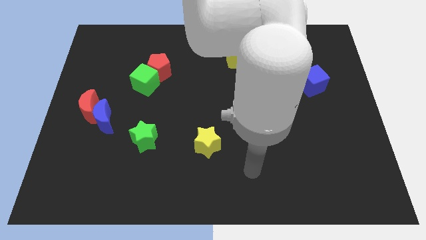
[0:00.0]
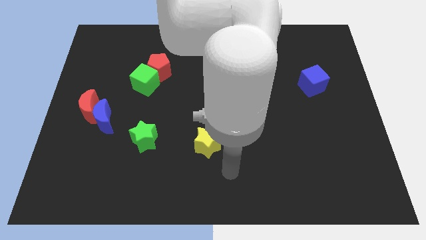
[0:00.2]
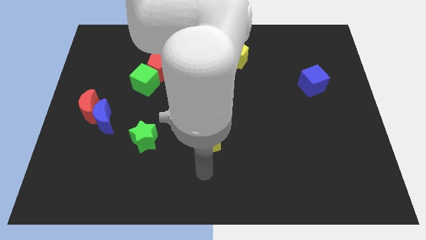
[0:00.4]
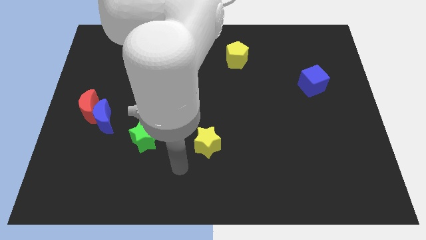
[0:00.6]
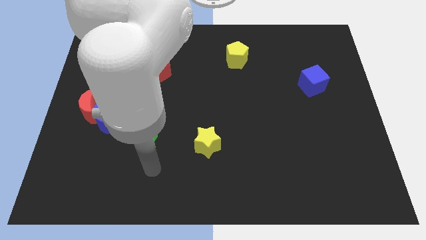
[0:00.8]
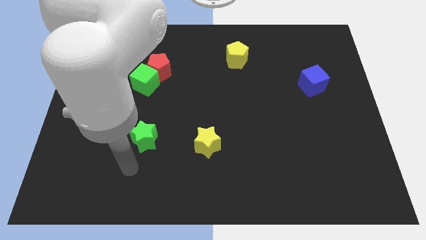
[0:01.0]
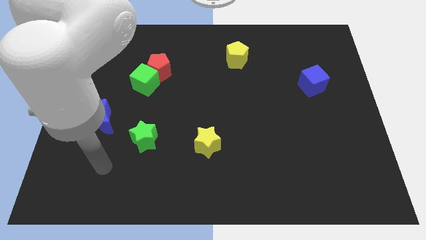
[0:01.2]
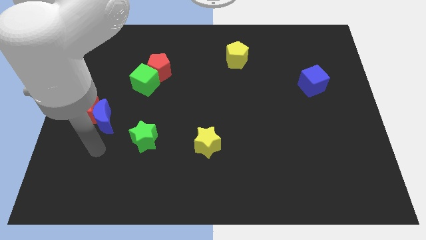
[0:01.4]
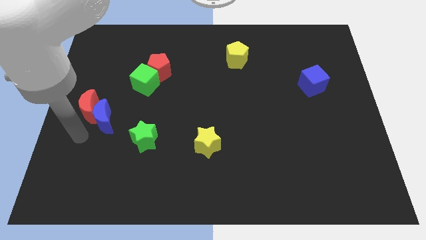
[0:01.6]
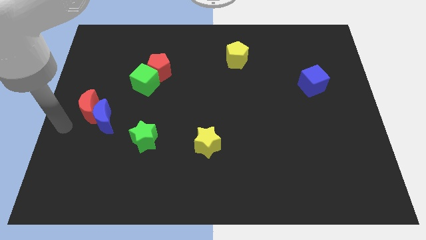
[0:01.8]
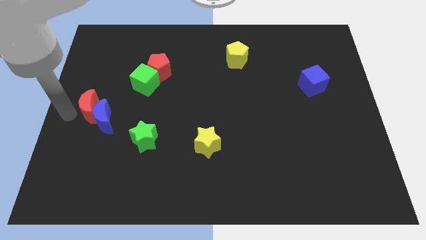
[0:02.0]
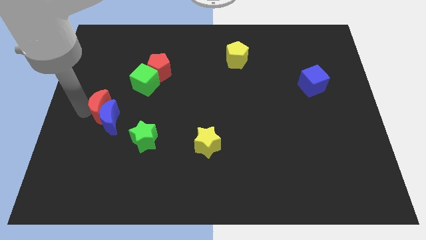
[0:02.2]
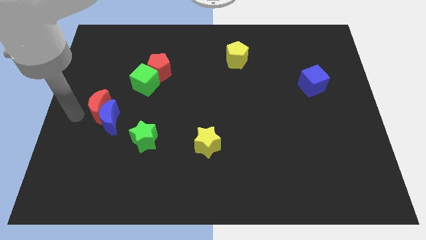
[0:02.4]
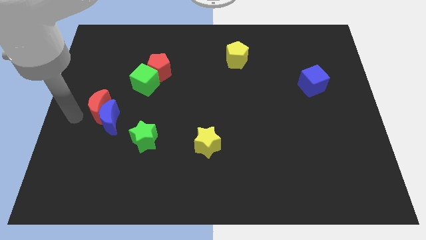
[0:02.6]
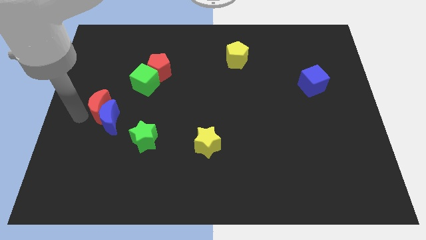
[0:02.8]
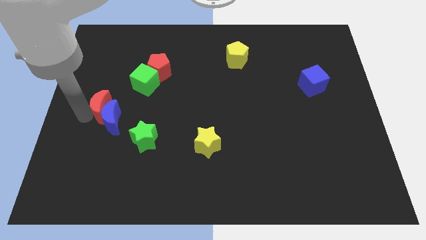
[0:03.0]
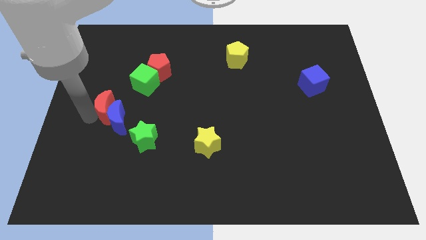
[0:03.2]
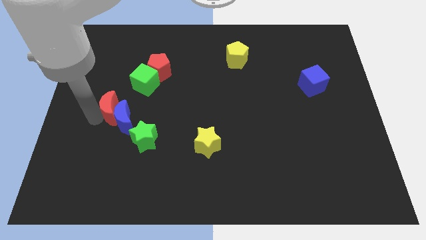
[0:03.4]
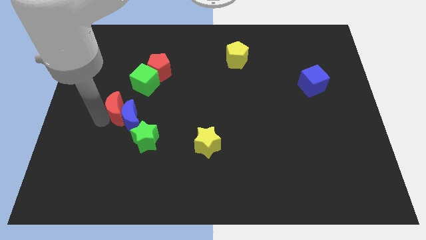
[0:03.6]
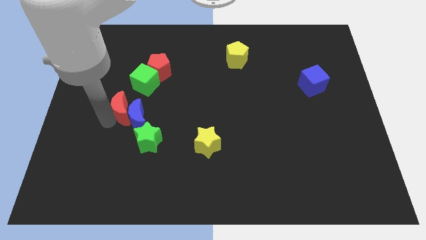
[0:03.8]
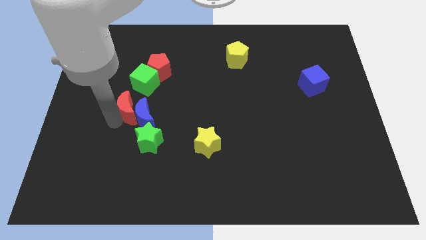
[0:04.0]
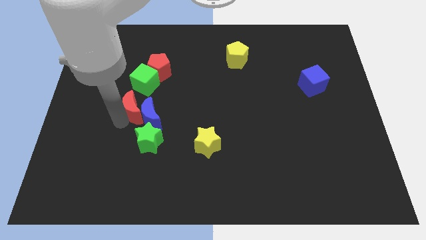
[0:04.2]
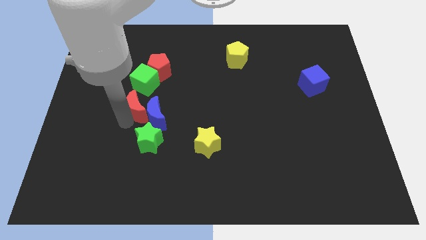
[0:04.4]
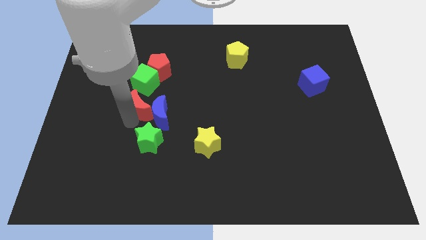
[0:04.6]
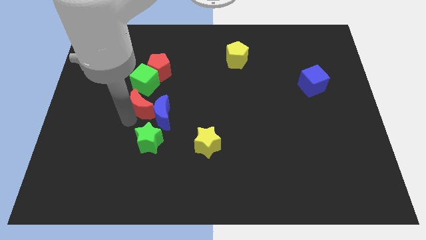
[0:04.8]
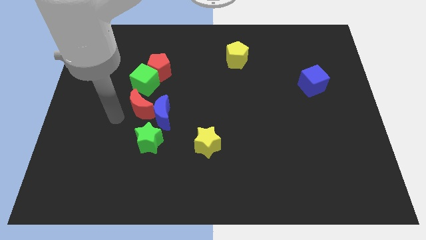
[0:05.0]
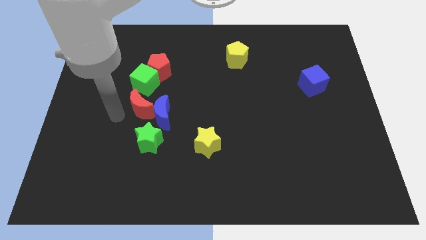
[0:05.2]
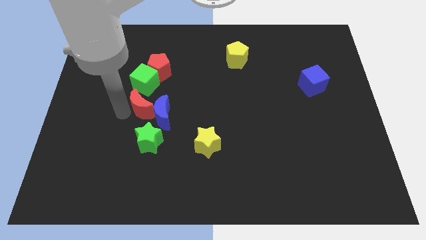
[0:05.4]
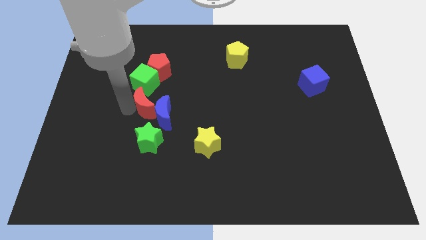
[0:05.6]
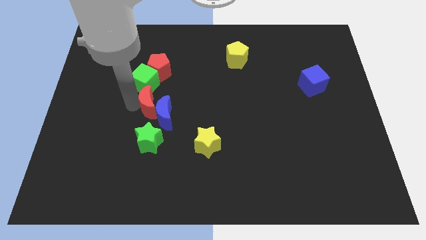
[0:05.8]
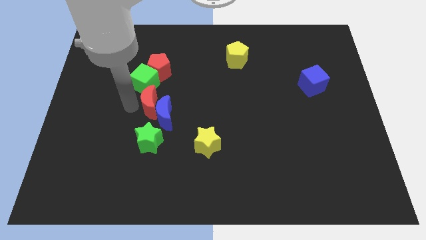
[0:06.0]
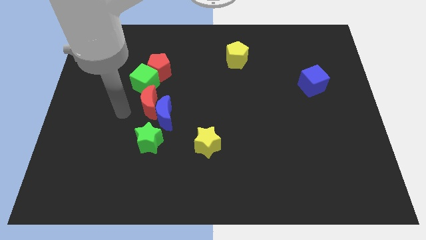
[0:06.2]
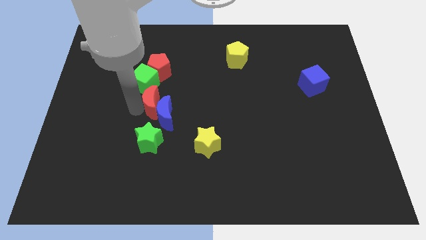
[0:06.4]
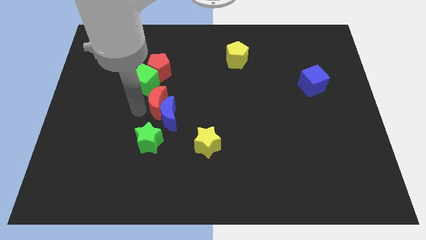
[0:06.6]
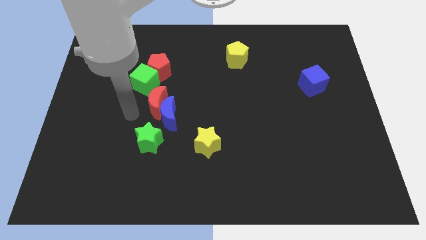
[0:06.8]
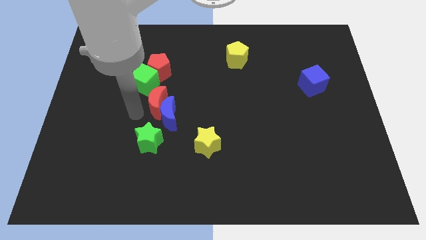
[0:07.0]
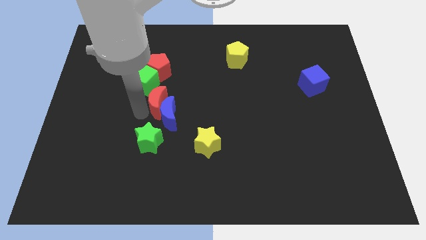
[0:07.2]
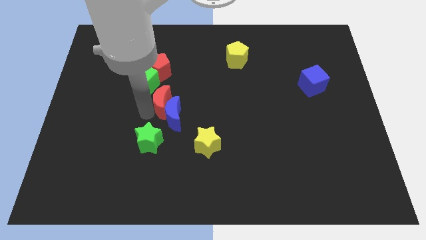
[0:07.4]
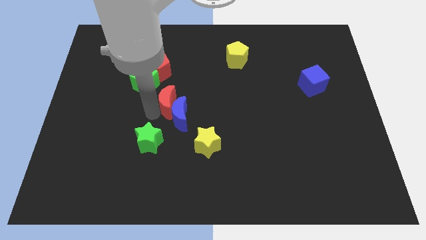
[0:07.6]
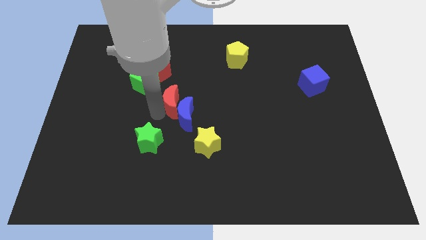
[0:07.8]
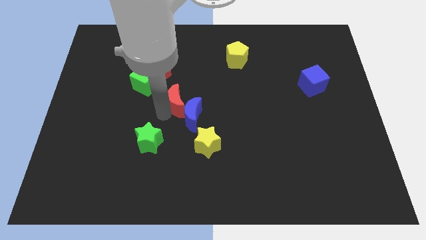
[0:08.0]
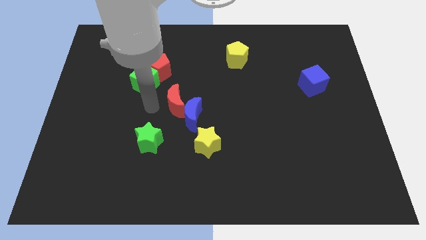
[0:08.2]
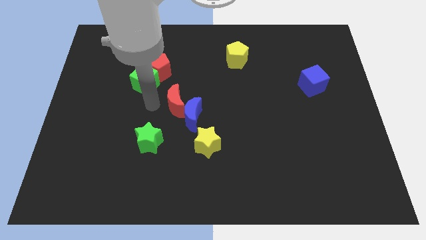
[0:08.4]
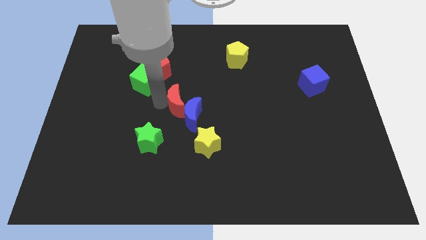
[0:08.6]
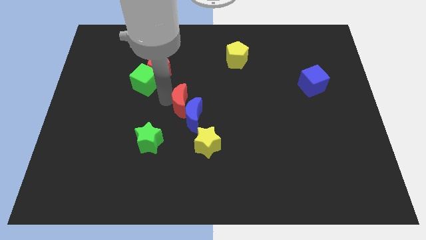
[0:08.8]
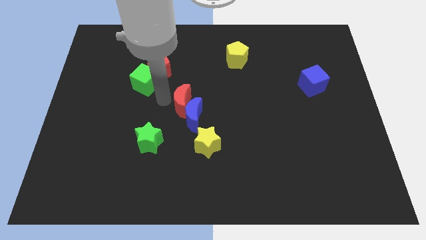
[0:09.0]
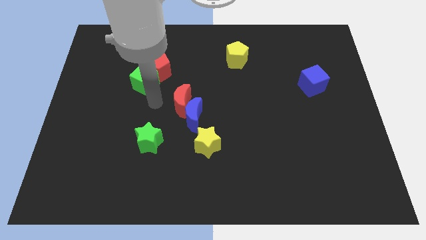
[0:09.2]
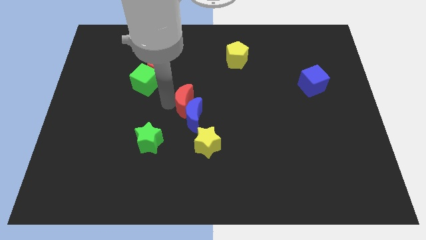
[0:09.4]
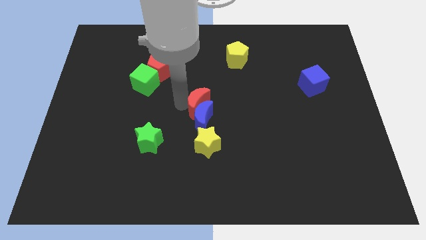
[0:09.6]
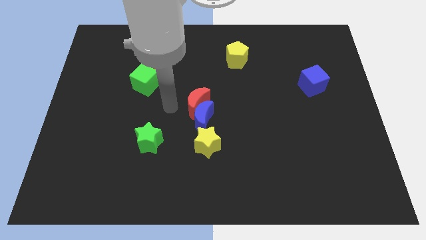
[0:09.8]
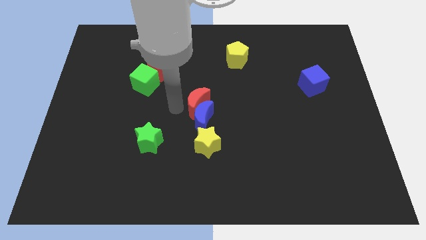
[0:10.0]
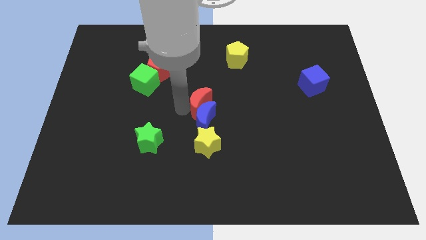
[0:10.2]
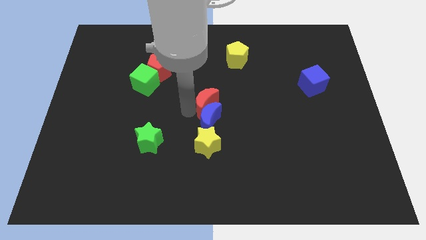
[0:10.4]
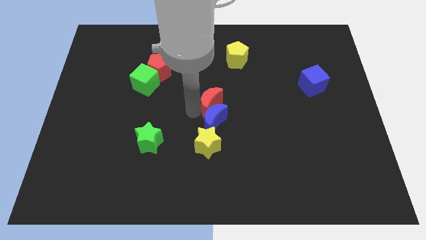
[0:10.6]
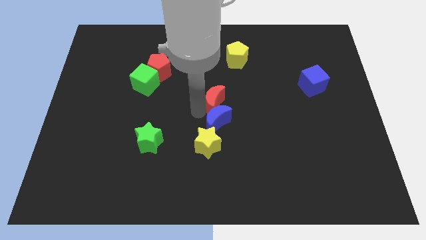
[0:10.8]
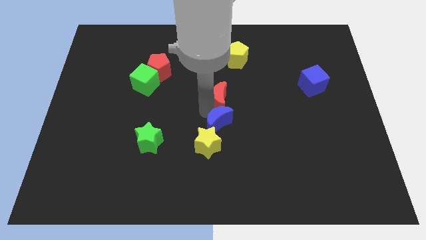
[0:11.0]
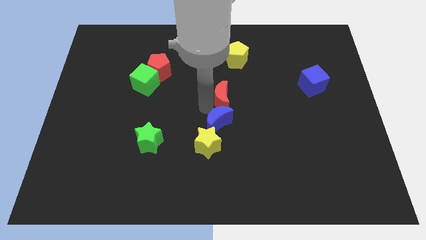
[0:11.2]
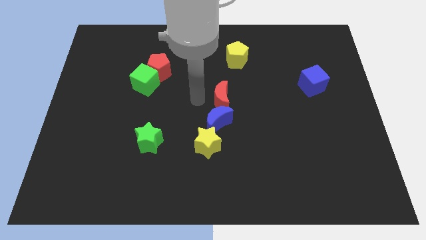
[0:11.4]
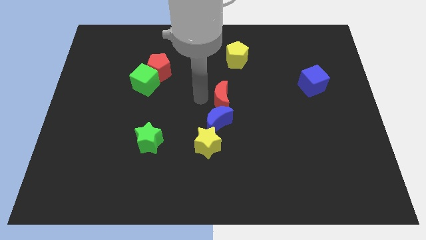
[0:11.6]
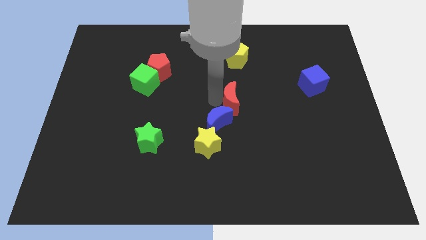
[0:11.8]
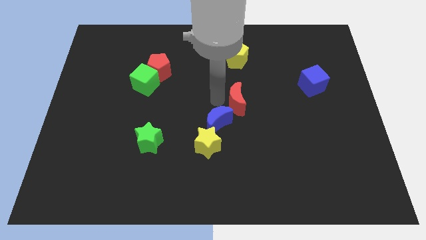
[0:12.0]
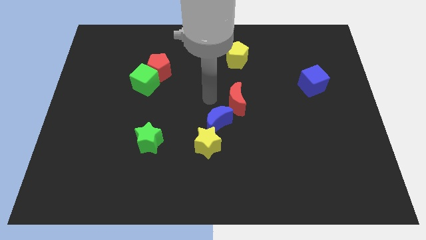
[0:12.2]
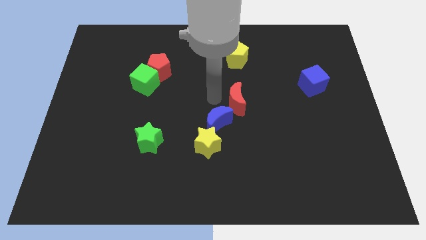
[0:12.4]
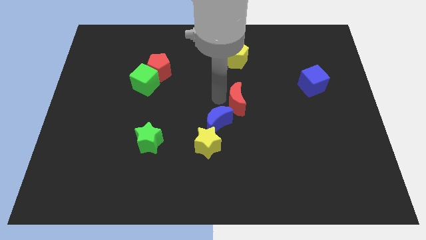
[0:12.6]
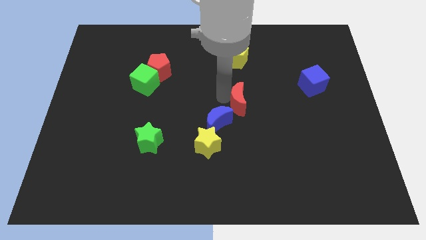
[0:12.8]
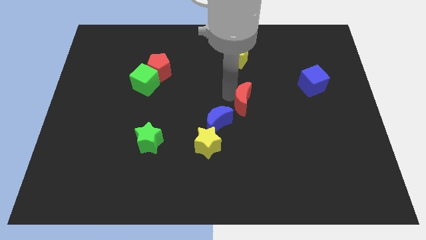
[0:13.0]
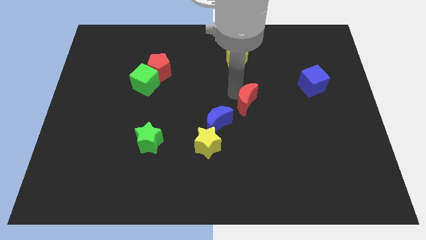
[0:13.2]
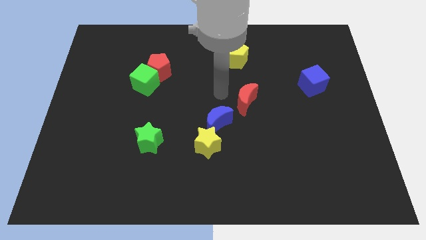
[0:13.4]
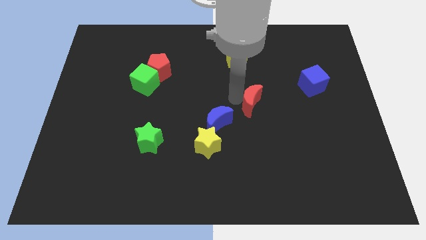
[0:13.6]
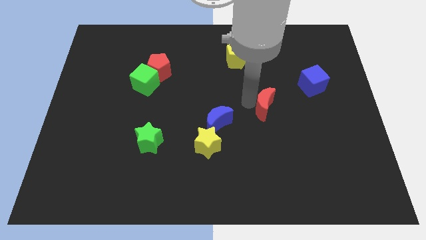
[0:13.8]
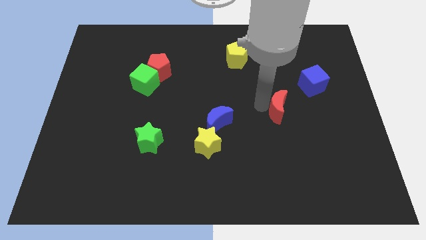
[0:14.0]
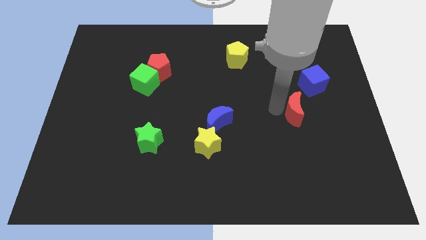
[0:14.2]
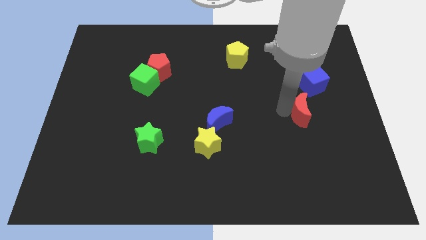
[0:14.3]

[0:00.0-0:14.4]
move the red moon below the blue cube
